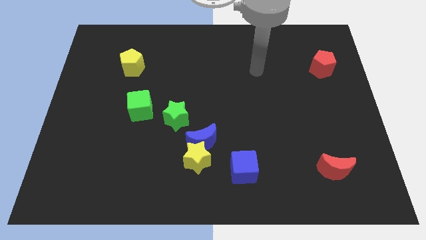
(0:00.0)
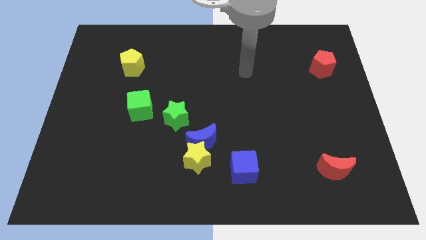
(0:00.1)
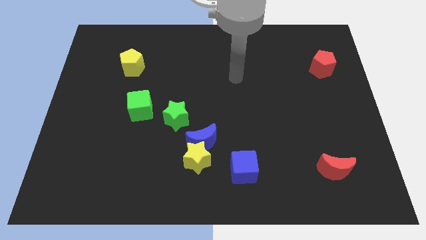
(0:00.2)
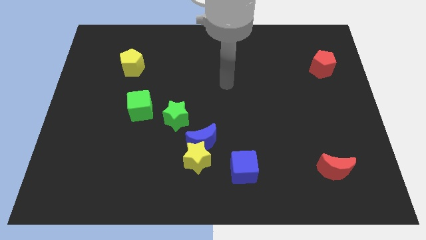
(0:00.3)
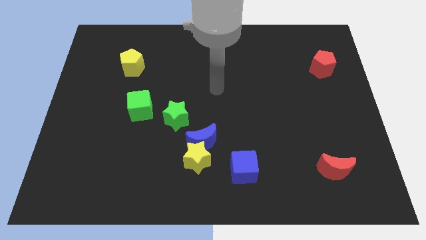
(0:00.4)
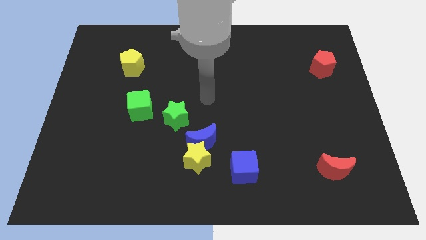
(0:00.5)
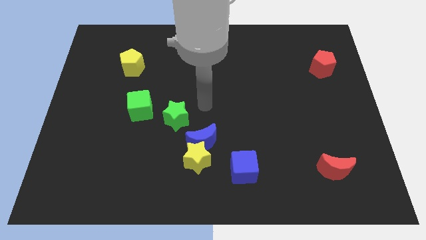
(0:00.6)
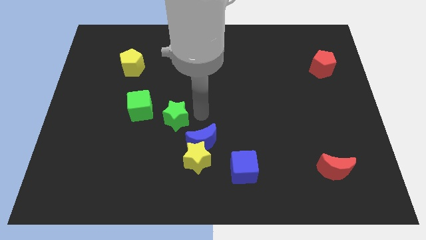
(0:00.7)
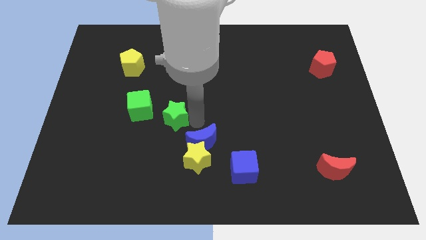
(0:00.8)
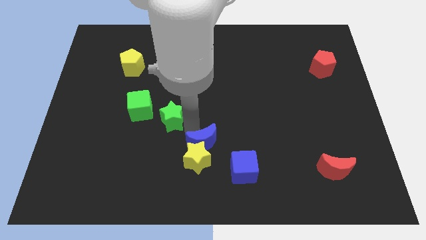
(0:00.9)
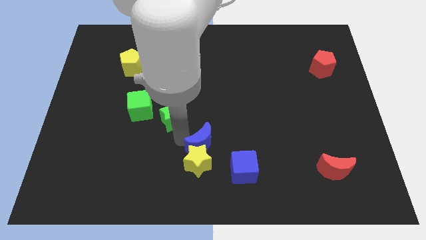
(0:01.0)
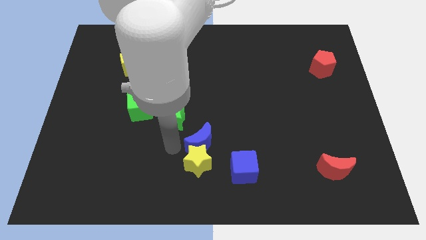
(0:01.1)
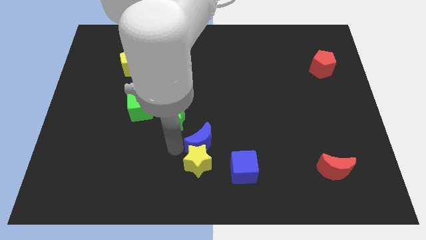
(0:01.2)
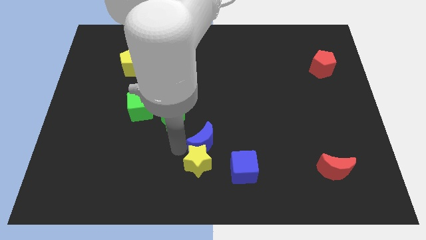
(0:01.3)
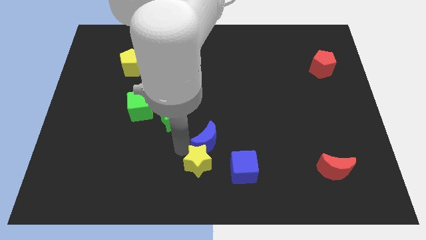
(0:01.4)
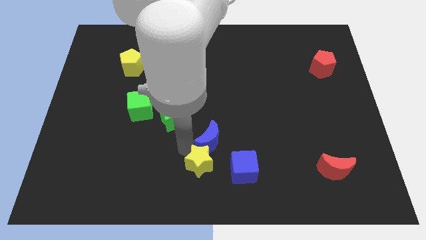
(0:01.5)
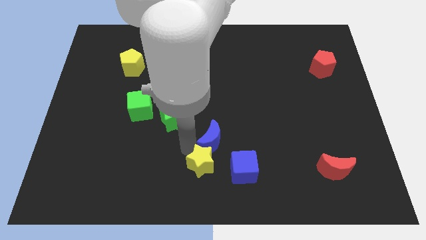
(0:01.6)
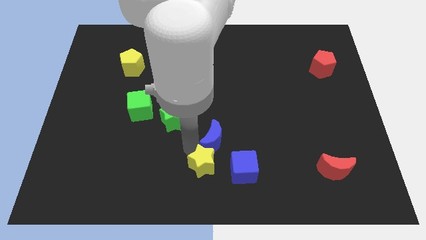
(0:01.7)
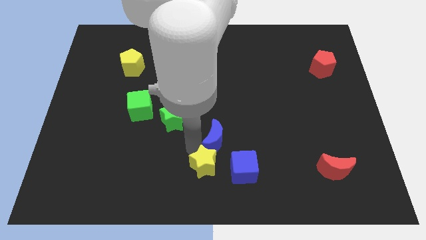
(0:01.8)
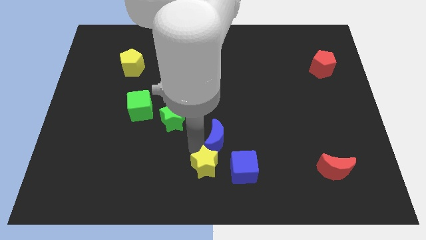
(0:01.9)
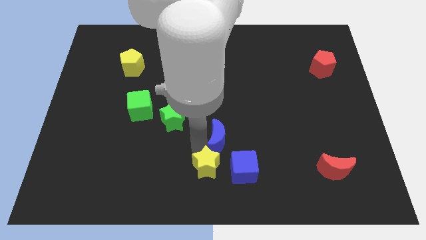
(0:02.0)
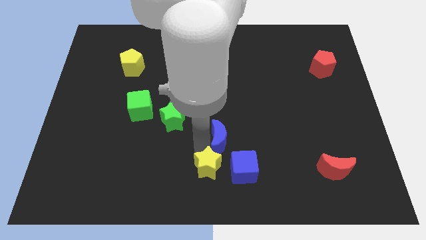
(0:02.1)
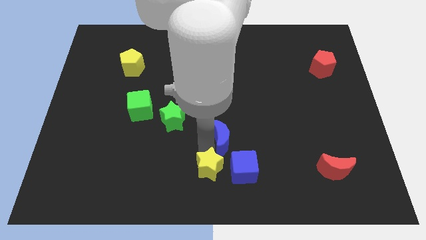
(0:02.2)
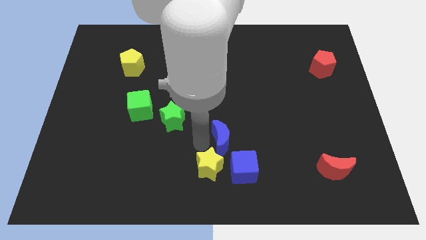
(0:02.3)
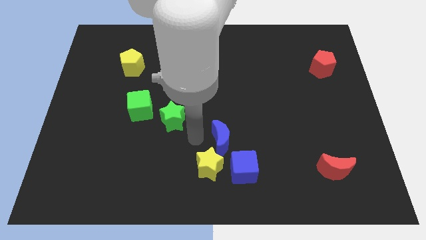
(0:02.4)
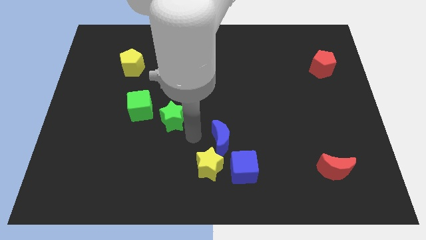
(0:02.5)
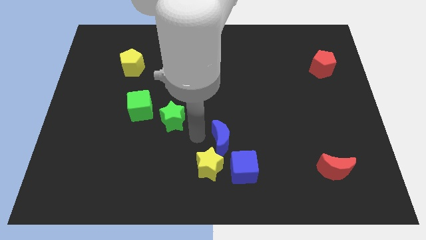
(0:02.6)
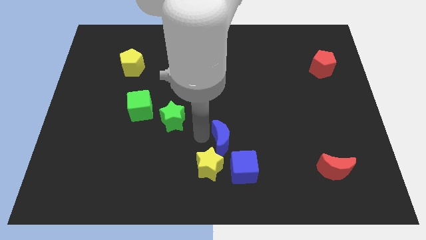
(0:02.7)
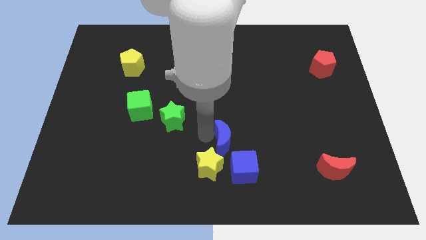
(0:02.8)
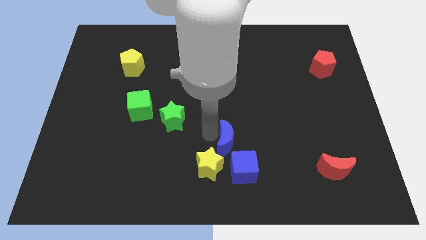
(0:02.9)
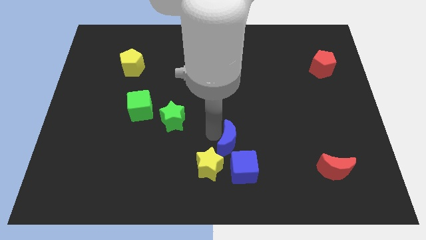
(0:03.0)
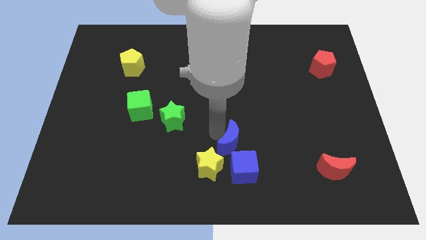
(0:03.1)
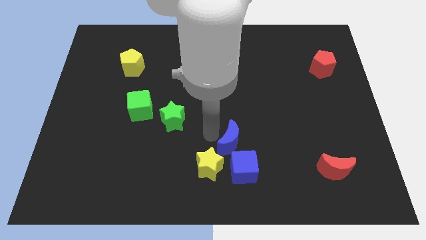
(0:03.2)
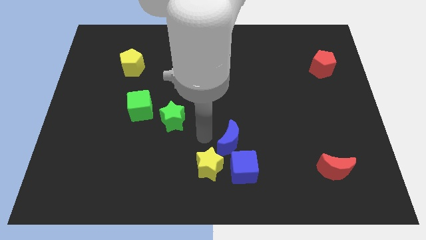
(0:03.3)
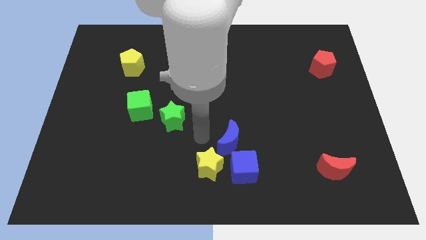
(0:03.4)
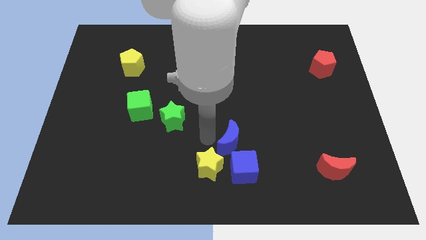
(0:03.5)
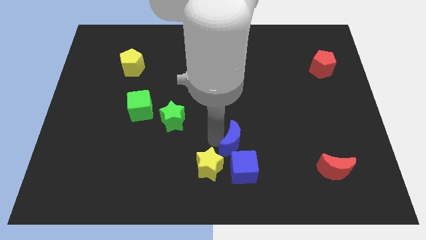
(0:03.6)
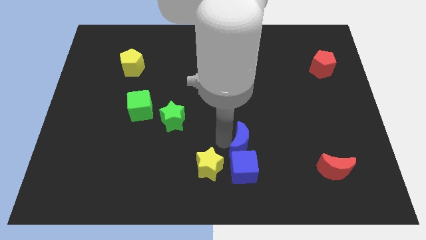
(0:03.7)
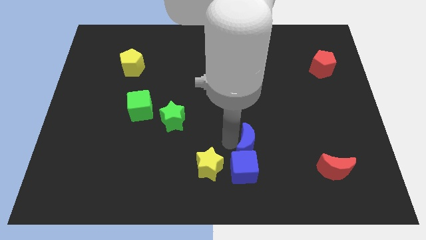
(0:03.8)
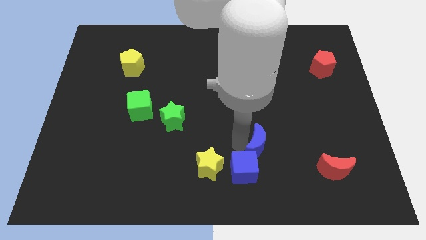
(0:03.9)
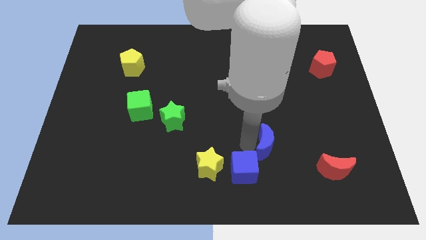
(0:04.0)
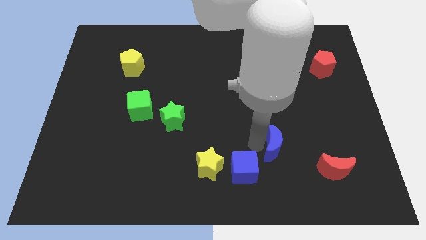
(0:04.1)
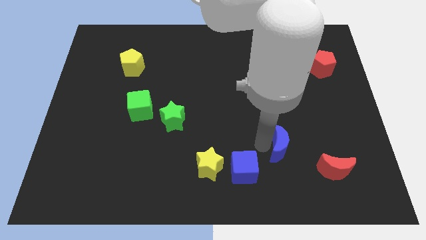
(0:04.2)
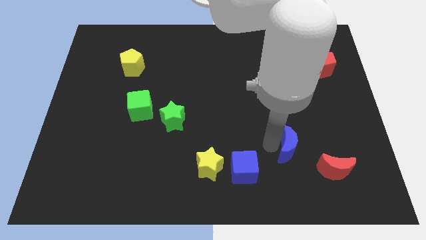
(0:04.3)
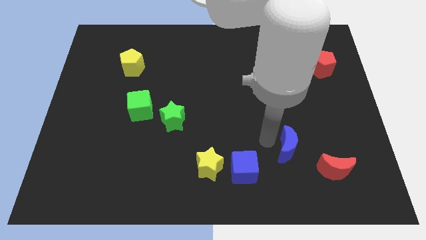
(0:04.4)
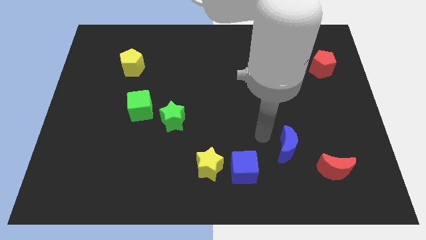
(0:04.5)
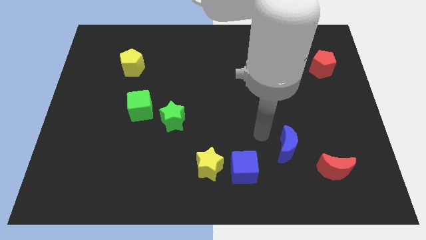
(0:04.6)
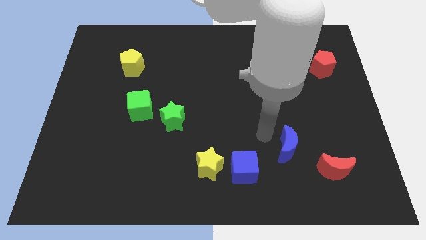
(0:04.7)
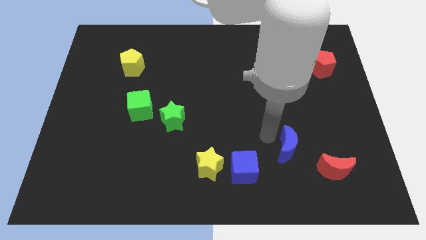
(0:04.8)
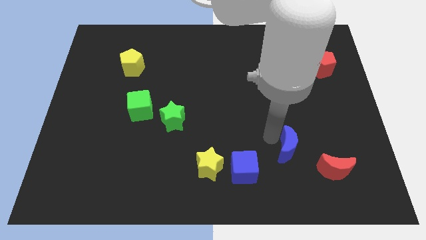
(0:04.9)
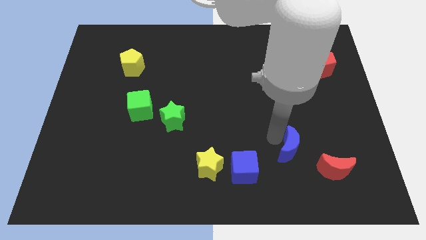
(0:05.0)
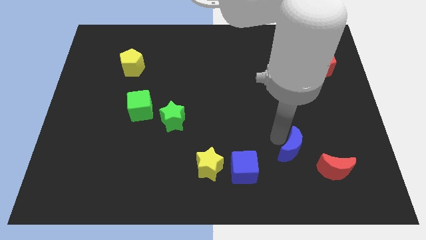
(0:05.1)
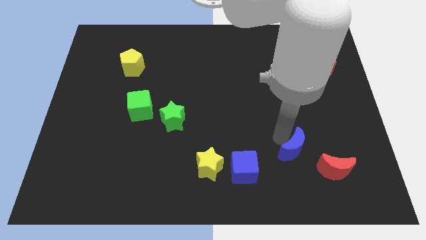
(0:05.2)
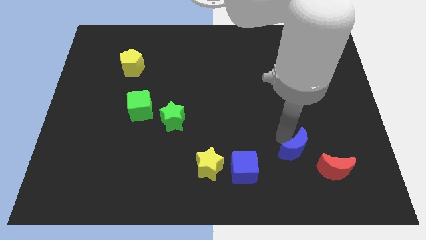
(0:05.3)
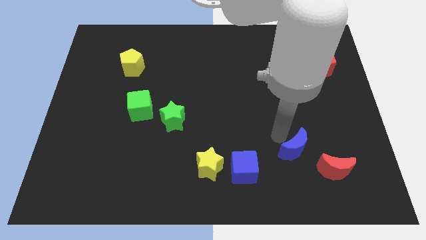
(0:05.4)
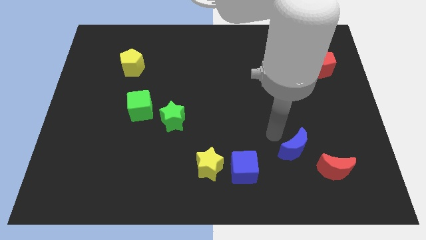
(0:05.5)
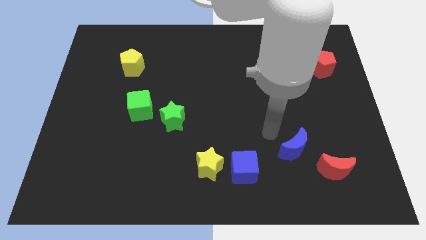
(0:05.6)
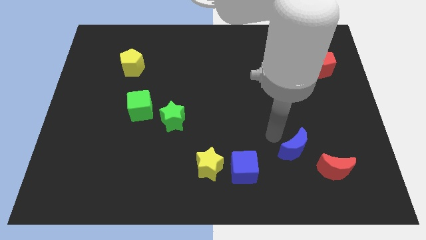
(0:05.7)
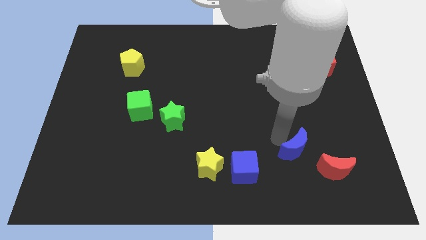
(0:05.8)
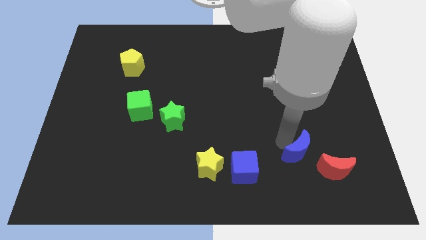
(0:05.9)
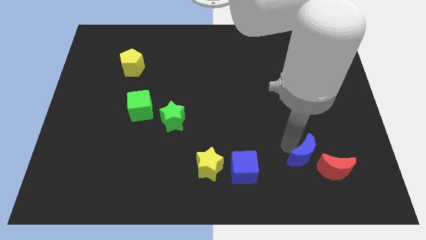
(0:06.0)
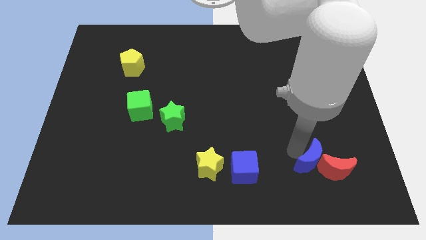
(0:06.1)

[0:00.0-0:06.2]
slide the blue moon next to the red moon

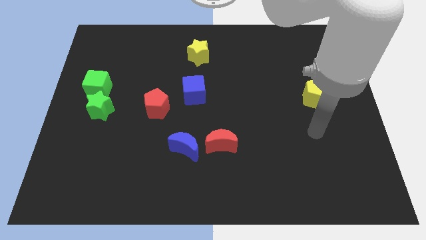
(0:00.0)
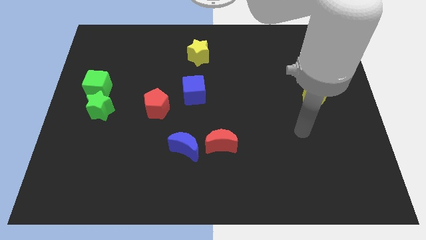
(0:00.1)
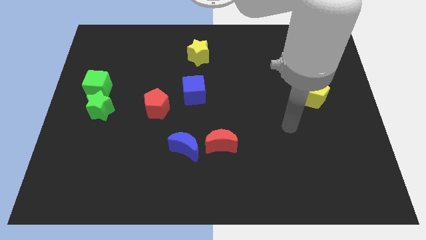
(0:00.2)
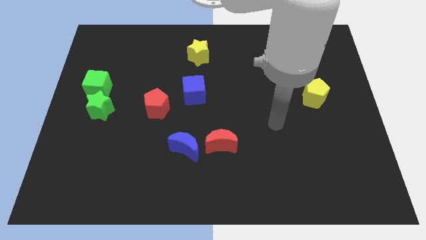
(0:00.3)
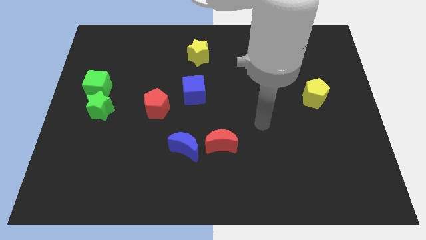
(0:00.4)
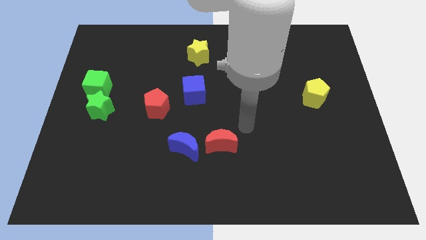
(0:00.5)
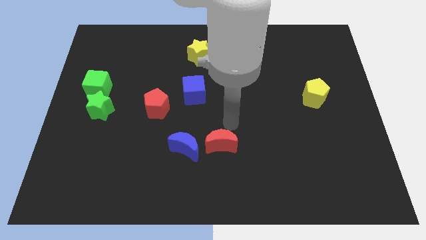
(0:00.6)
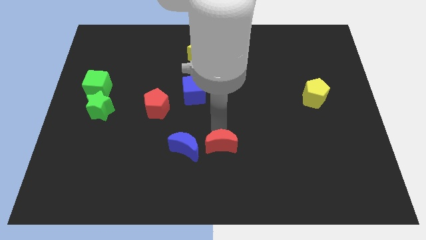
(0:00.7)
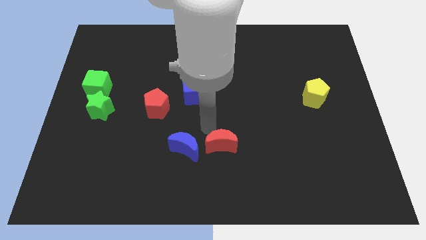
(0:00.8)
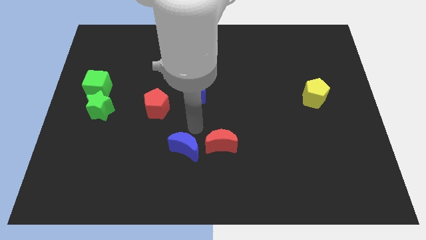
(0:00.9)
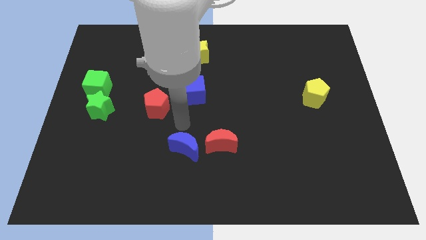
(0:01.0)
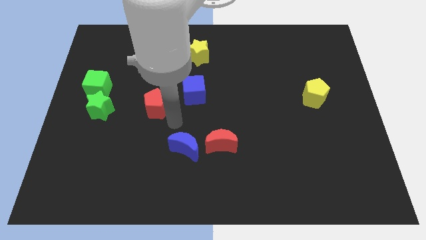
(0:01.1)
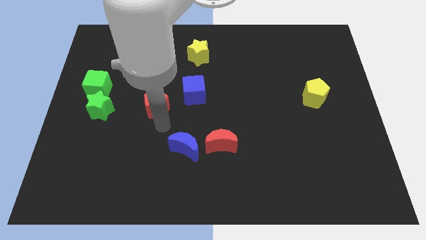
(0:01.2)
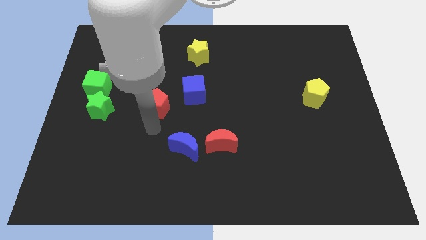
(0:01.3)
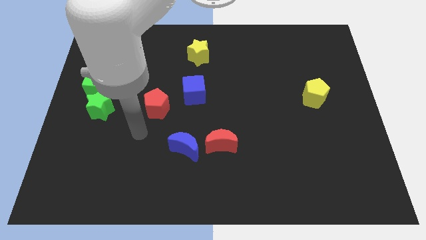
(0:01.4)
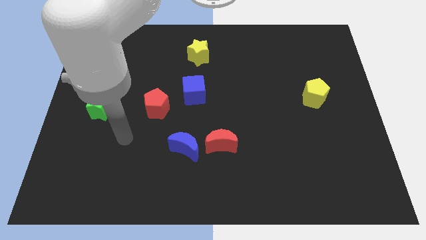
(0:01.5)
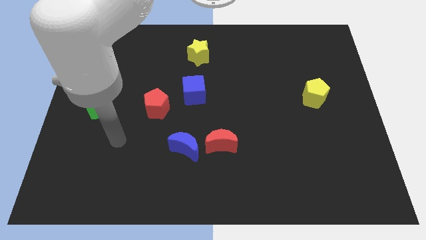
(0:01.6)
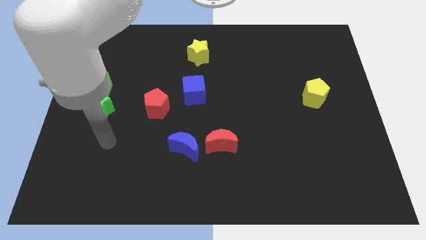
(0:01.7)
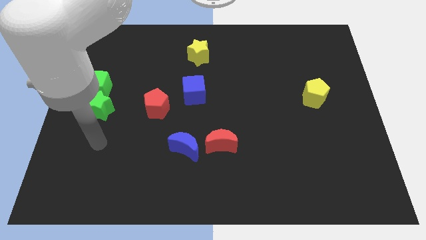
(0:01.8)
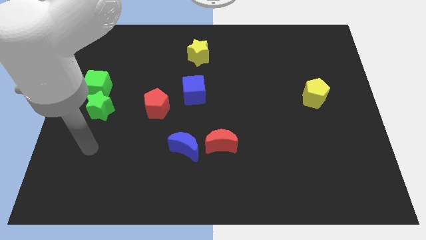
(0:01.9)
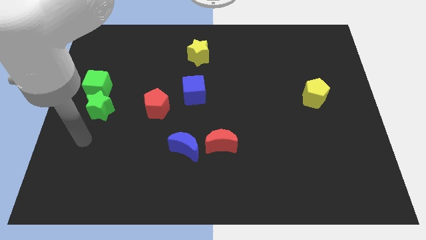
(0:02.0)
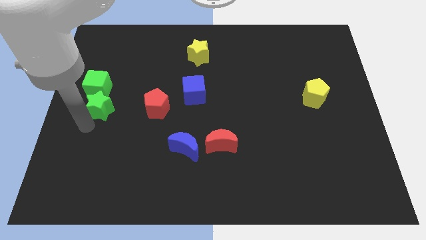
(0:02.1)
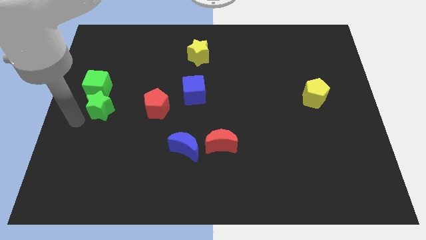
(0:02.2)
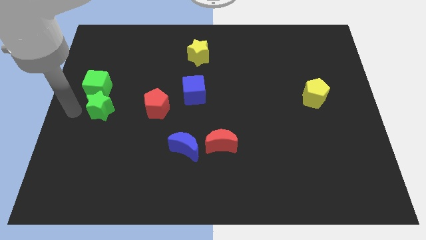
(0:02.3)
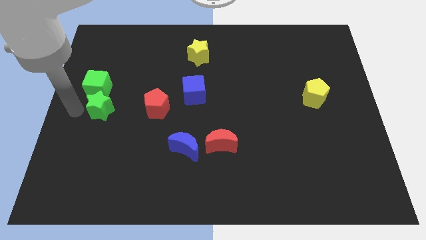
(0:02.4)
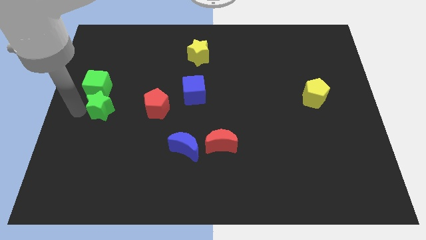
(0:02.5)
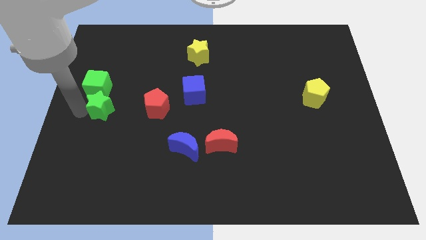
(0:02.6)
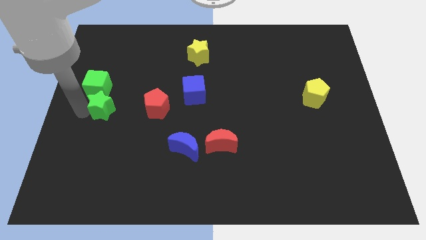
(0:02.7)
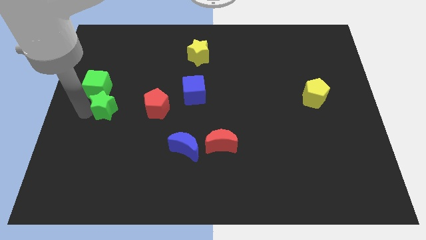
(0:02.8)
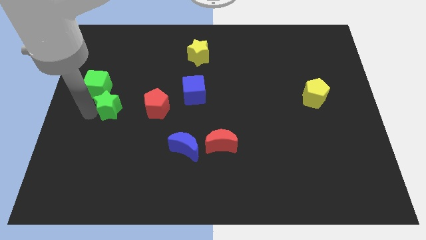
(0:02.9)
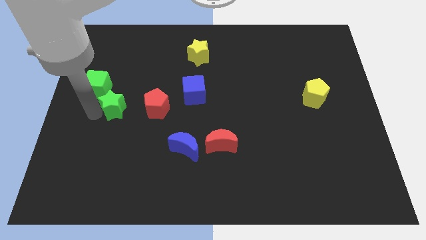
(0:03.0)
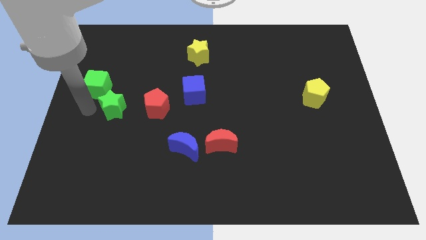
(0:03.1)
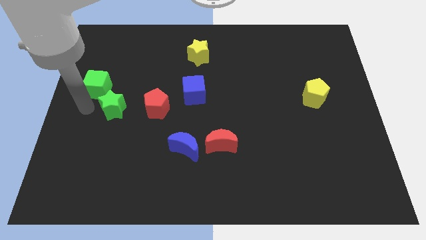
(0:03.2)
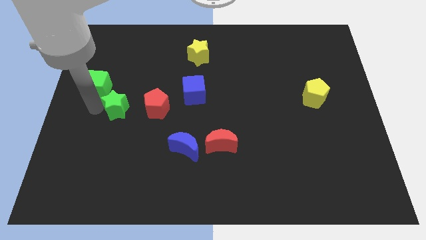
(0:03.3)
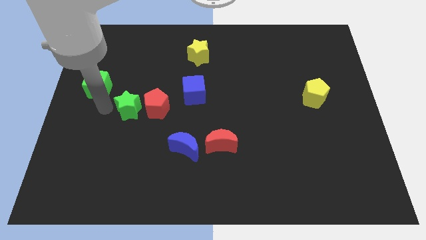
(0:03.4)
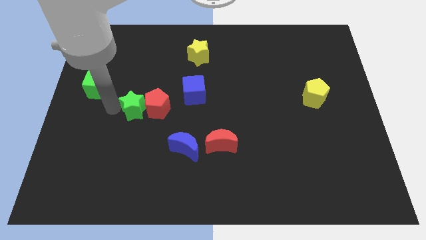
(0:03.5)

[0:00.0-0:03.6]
put the green star next to the red pentagon
